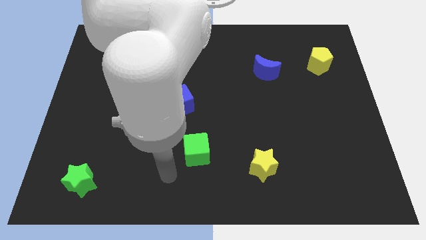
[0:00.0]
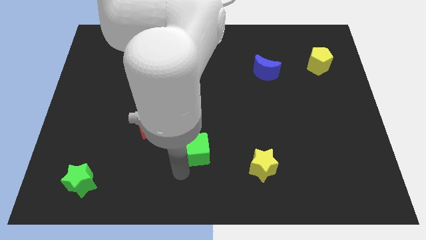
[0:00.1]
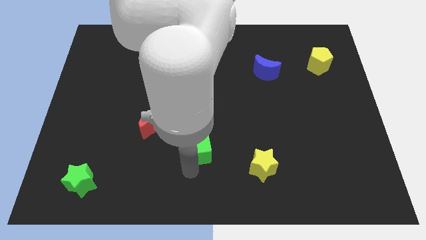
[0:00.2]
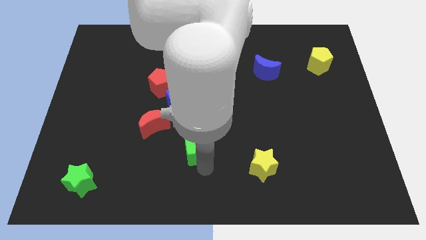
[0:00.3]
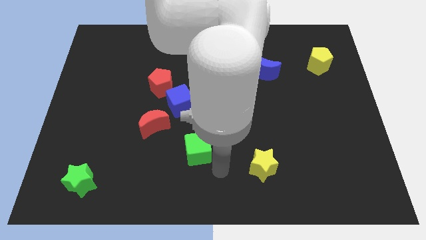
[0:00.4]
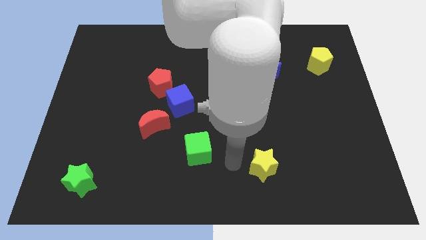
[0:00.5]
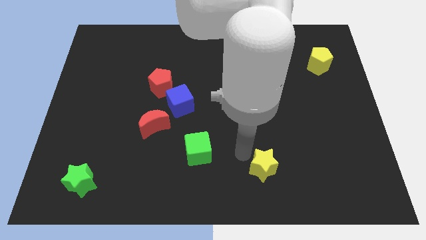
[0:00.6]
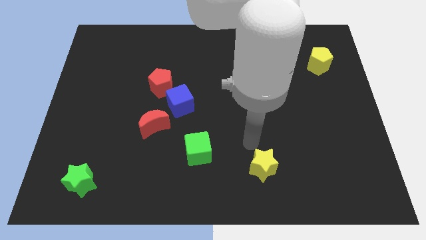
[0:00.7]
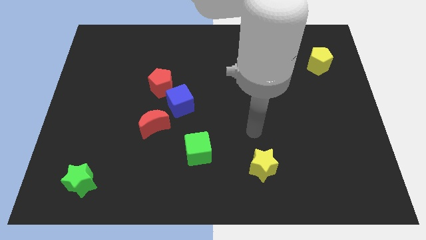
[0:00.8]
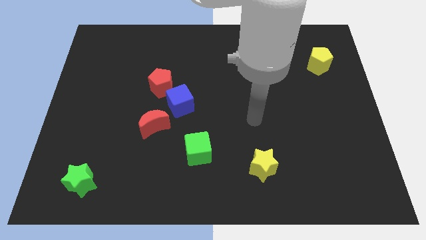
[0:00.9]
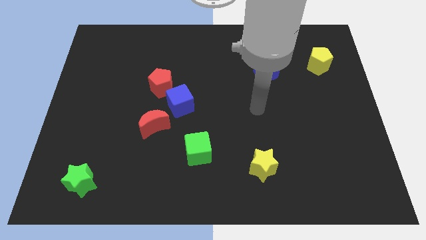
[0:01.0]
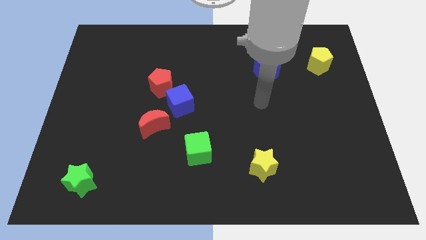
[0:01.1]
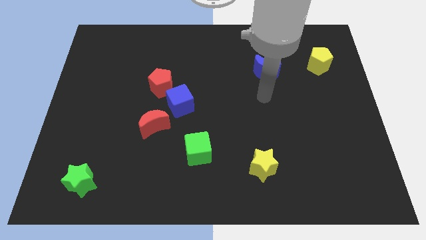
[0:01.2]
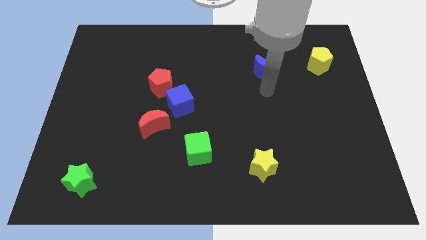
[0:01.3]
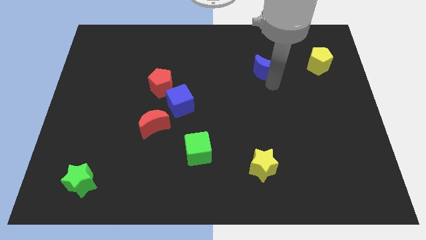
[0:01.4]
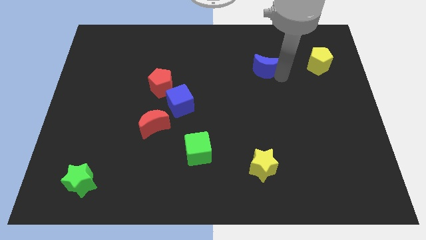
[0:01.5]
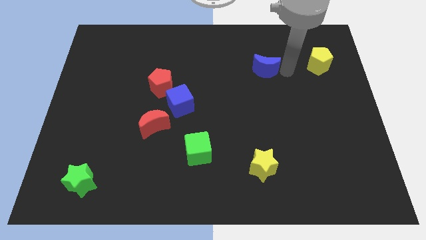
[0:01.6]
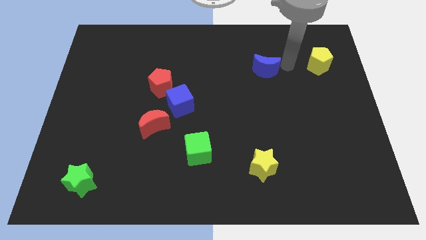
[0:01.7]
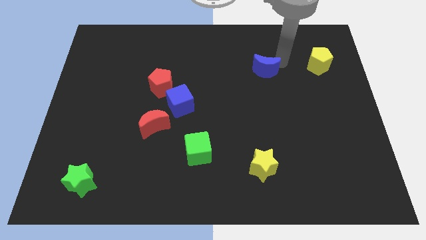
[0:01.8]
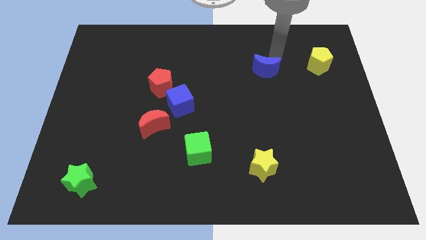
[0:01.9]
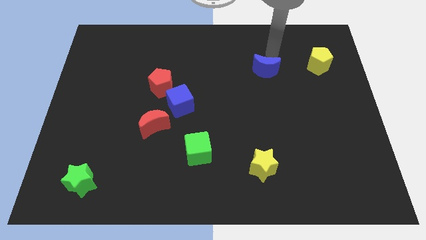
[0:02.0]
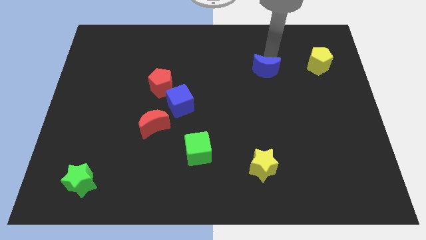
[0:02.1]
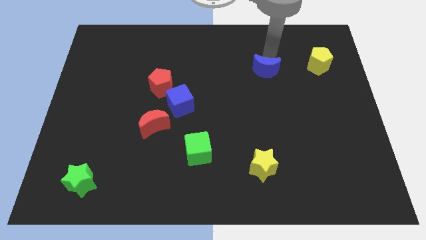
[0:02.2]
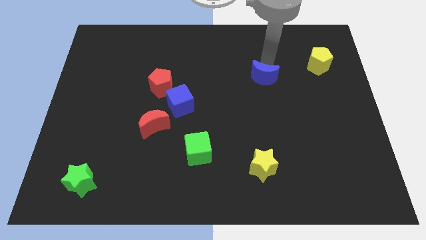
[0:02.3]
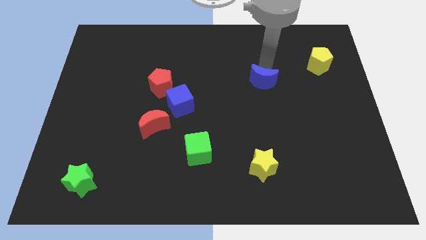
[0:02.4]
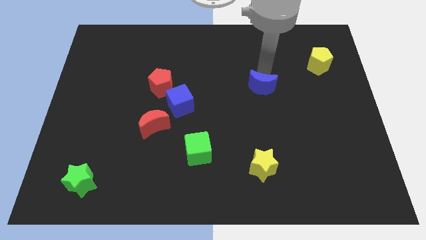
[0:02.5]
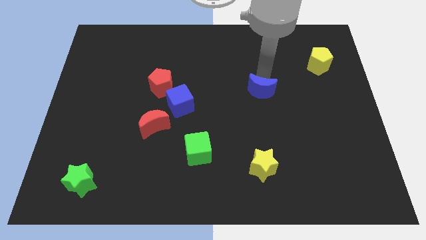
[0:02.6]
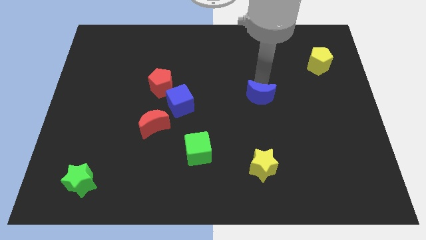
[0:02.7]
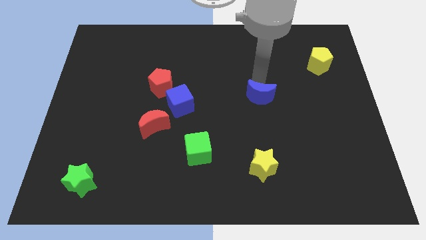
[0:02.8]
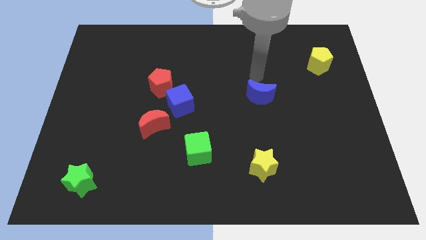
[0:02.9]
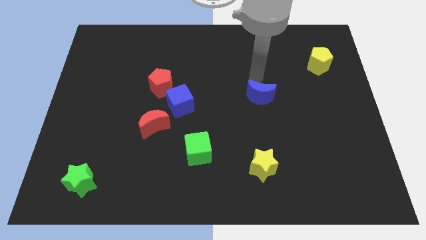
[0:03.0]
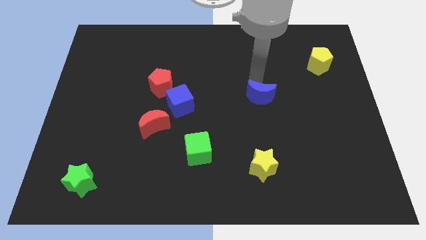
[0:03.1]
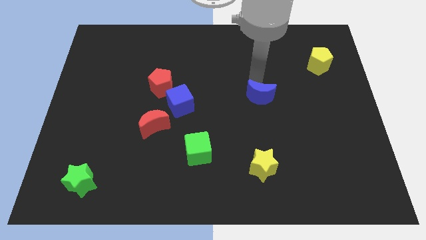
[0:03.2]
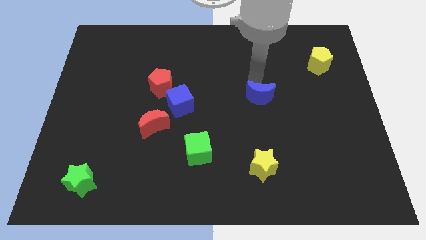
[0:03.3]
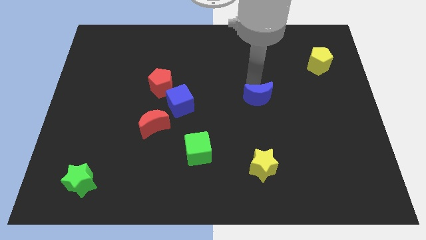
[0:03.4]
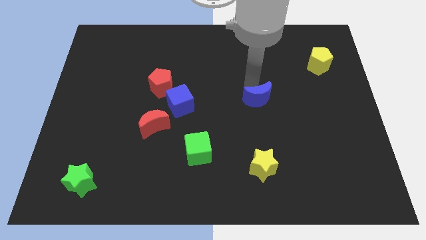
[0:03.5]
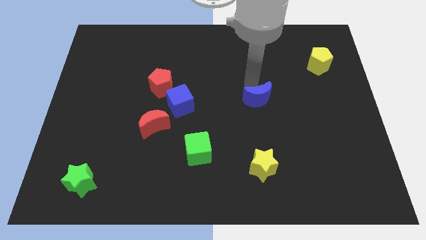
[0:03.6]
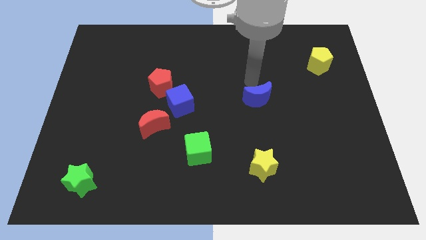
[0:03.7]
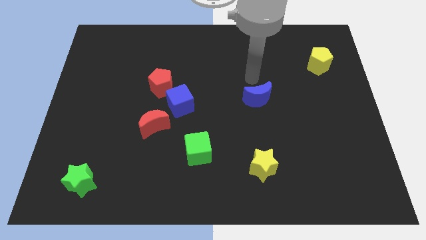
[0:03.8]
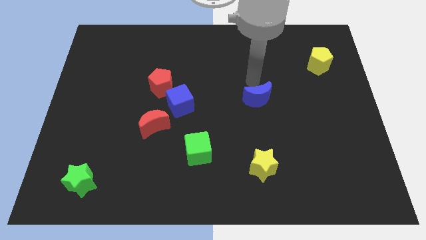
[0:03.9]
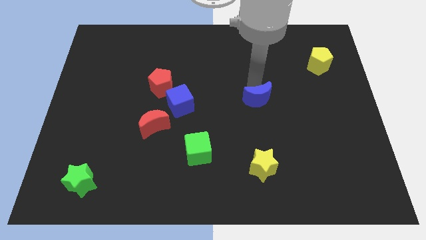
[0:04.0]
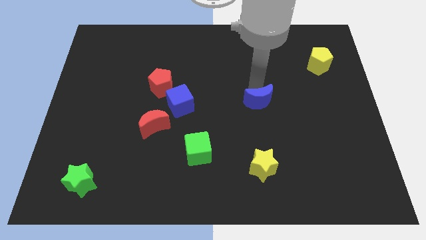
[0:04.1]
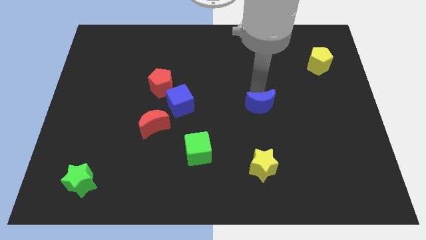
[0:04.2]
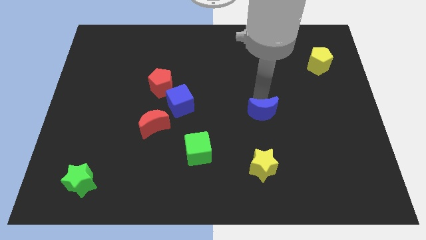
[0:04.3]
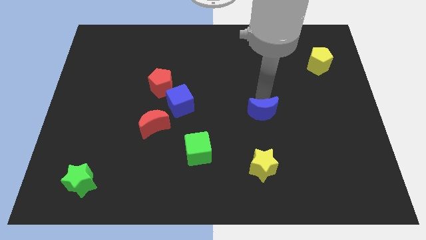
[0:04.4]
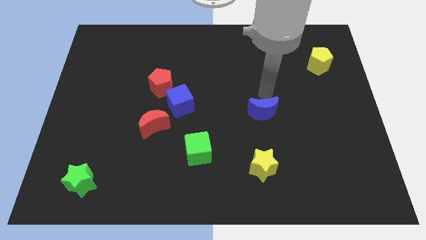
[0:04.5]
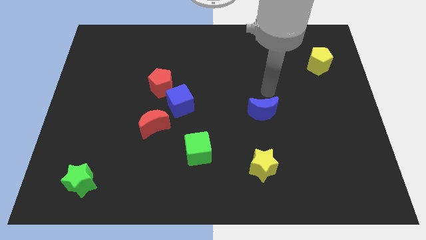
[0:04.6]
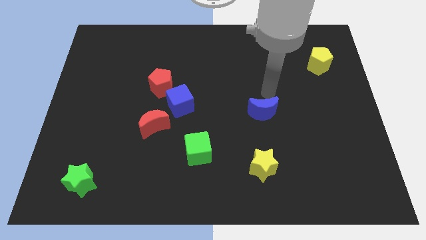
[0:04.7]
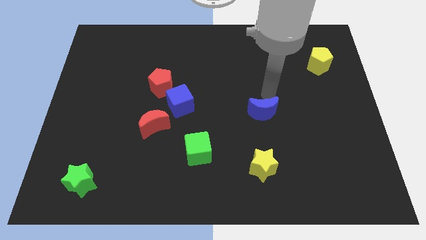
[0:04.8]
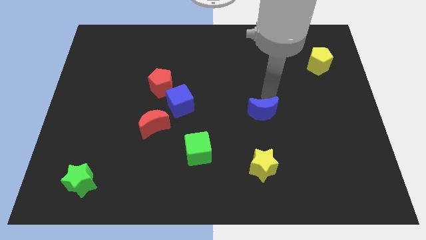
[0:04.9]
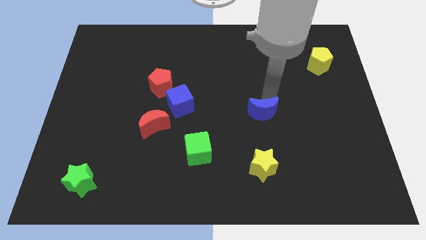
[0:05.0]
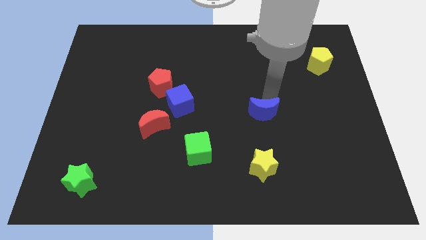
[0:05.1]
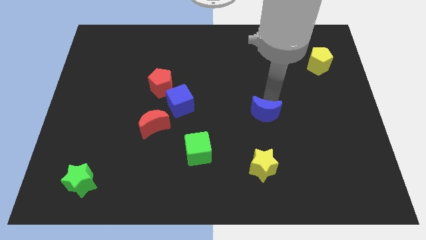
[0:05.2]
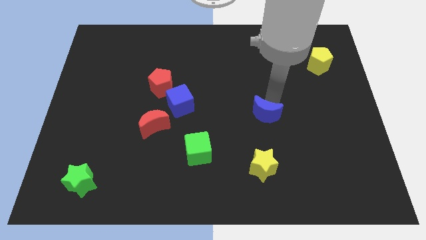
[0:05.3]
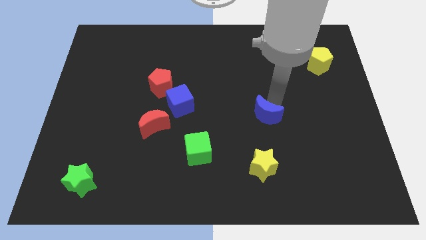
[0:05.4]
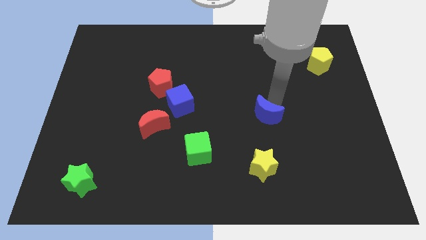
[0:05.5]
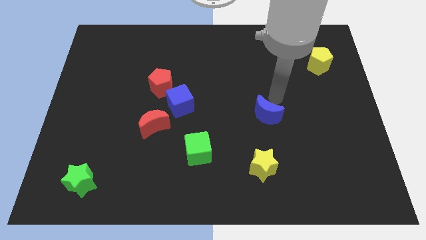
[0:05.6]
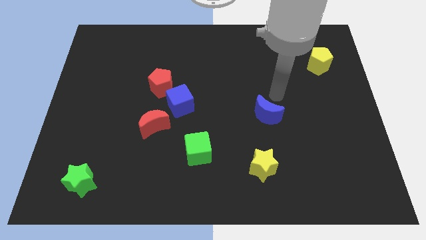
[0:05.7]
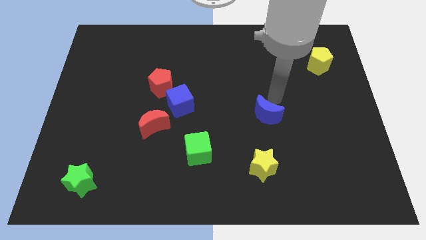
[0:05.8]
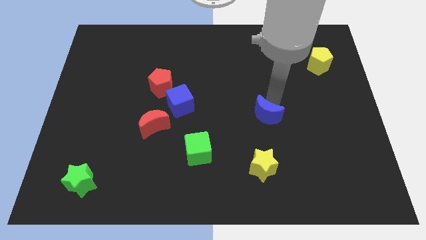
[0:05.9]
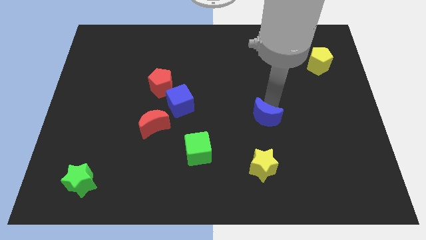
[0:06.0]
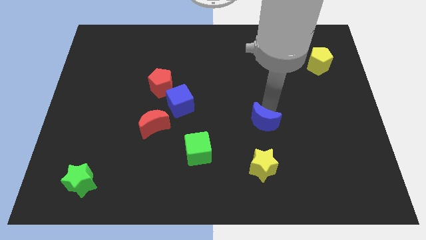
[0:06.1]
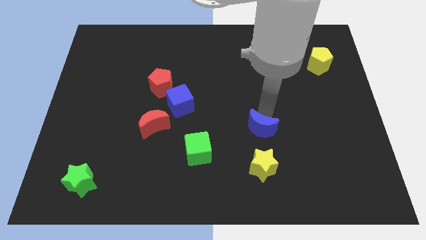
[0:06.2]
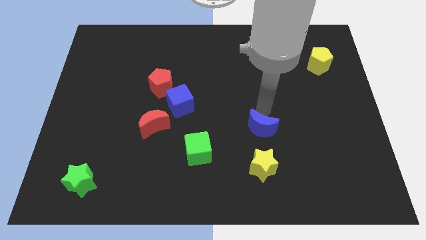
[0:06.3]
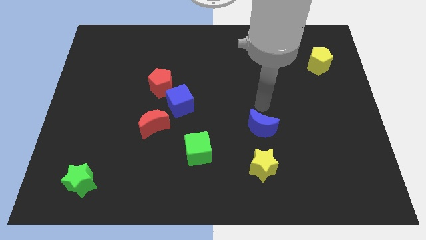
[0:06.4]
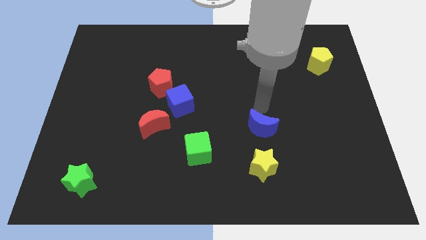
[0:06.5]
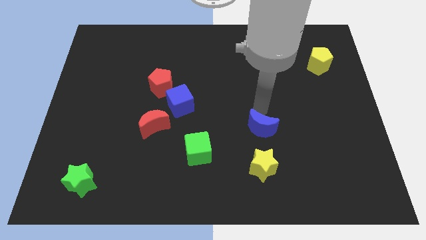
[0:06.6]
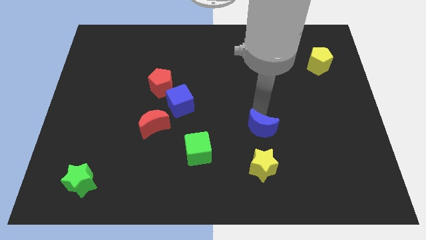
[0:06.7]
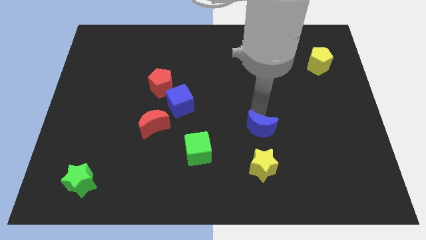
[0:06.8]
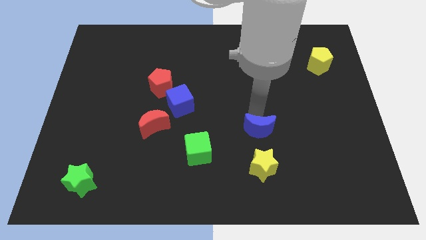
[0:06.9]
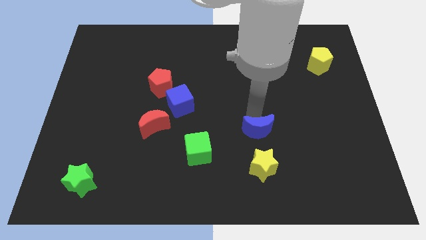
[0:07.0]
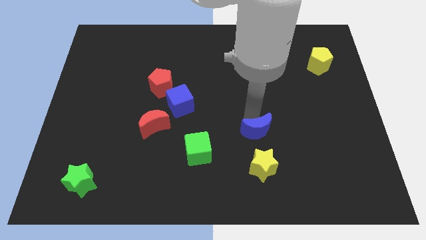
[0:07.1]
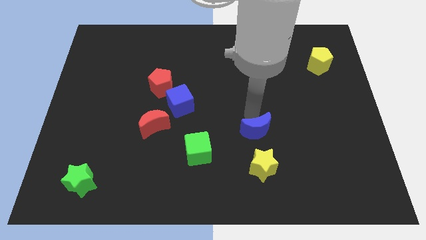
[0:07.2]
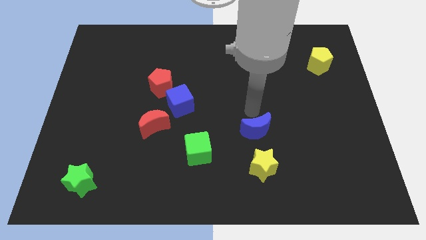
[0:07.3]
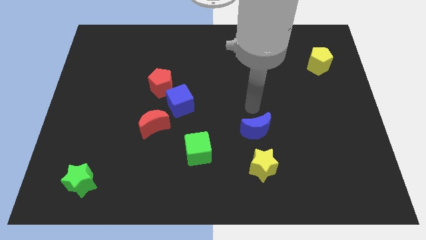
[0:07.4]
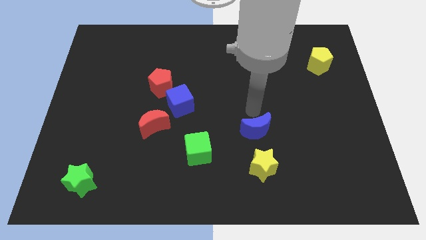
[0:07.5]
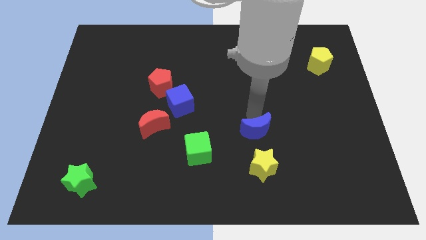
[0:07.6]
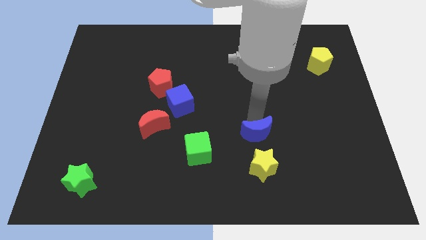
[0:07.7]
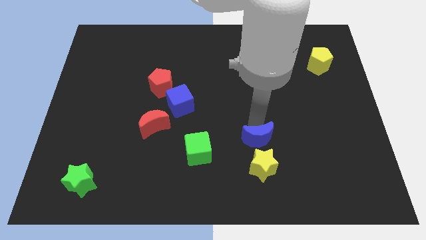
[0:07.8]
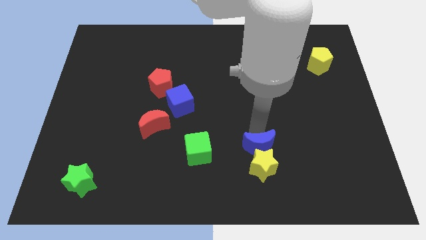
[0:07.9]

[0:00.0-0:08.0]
push the blue moon to the yellow star
